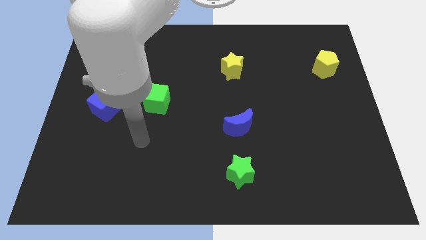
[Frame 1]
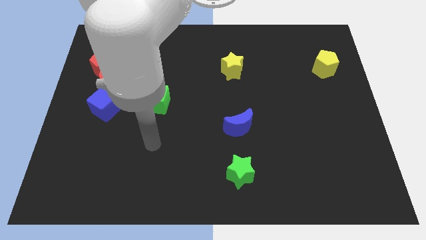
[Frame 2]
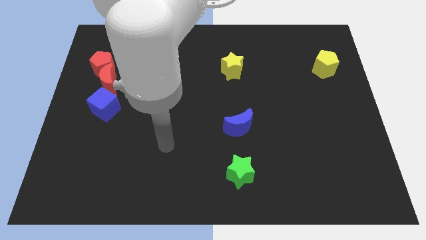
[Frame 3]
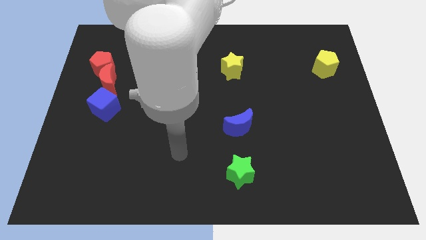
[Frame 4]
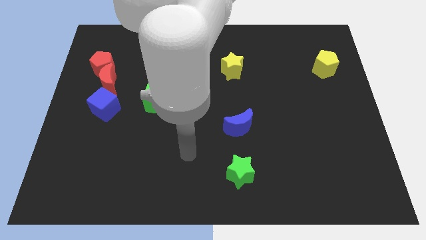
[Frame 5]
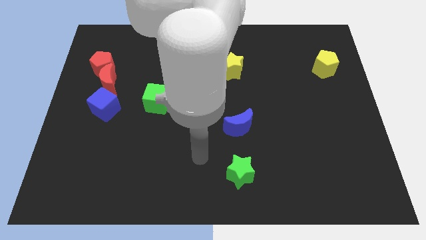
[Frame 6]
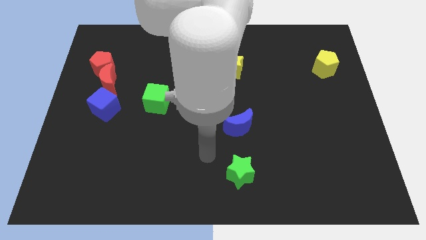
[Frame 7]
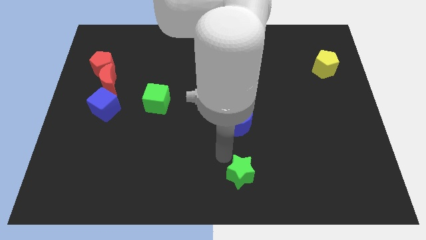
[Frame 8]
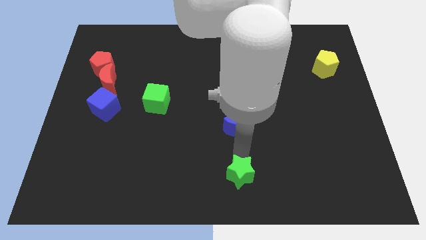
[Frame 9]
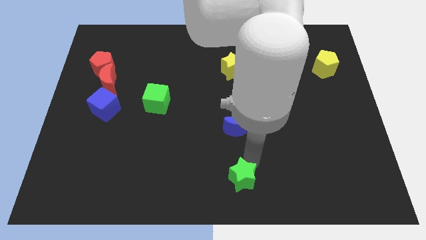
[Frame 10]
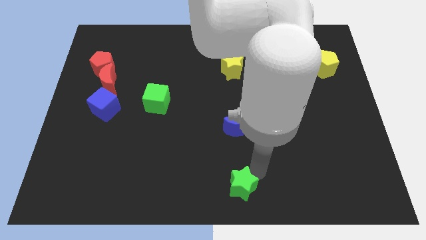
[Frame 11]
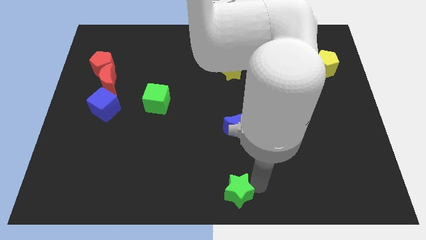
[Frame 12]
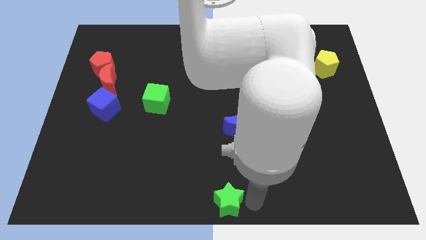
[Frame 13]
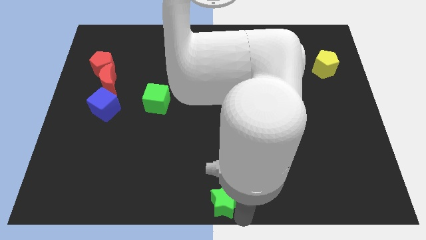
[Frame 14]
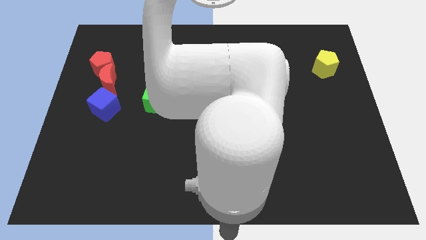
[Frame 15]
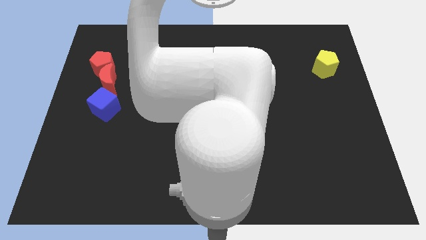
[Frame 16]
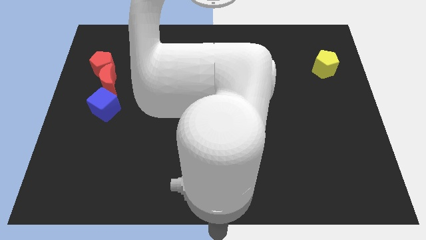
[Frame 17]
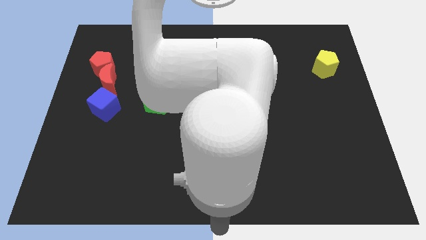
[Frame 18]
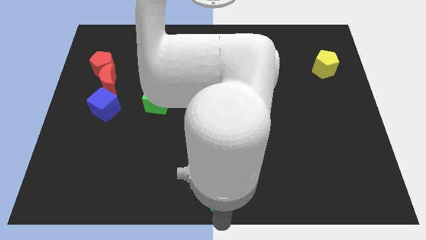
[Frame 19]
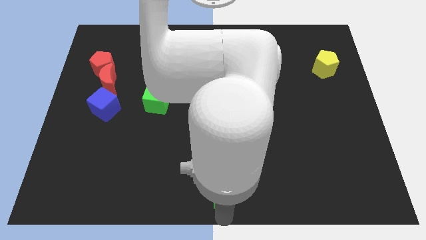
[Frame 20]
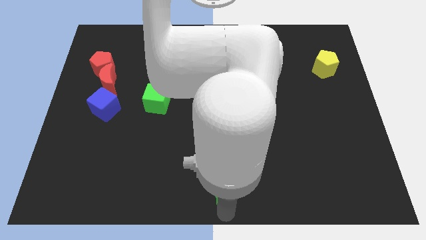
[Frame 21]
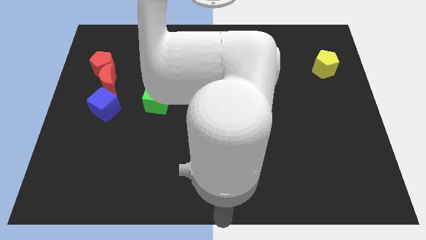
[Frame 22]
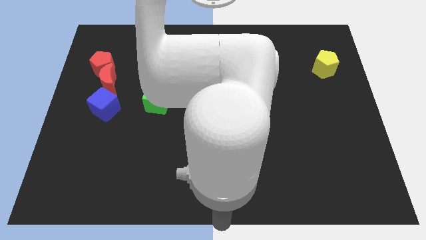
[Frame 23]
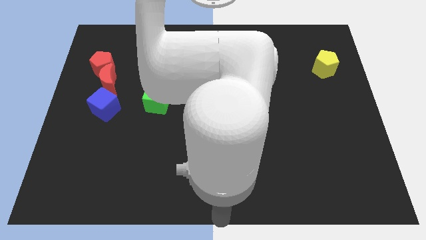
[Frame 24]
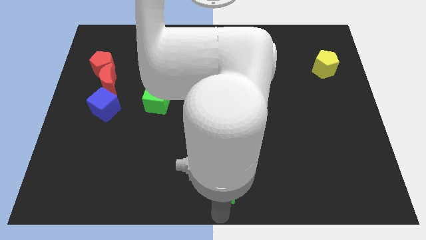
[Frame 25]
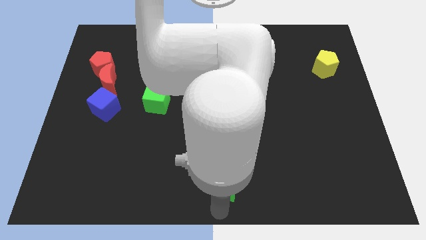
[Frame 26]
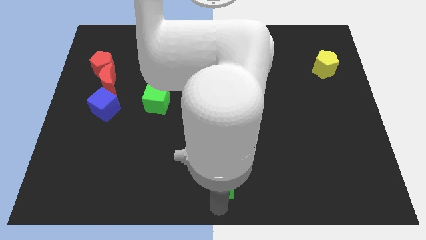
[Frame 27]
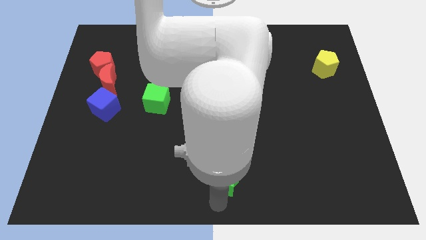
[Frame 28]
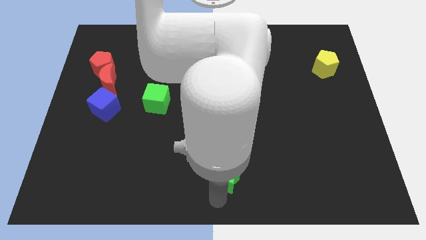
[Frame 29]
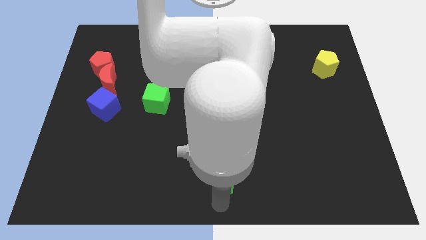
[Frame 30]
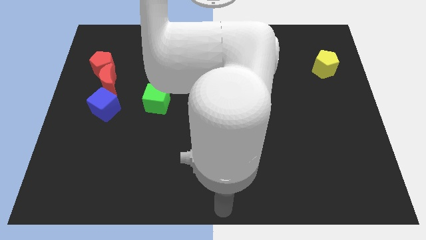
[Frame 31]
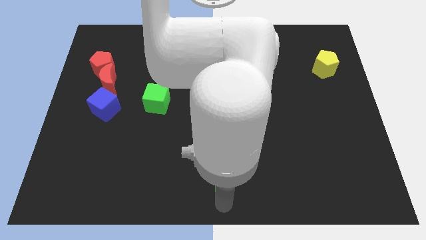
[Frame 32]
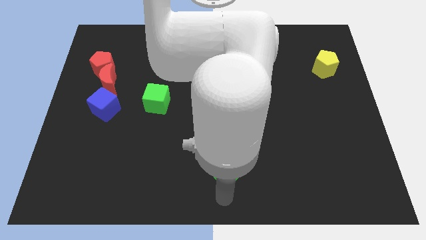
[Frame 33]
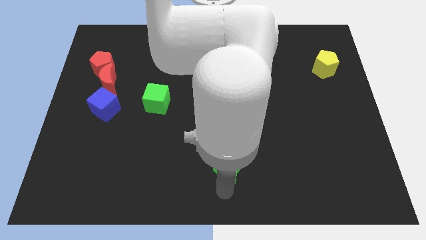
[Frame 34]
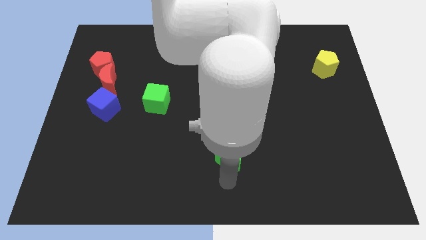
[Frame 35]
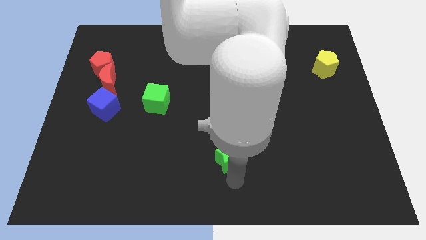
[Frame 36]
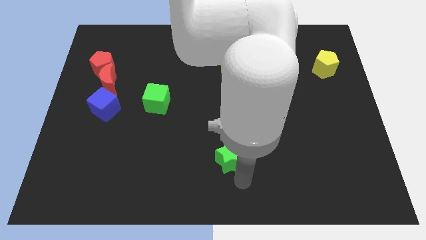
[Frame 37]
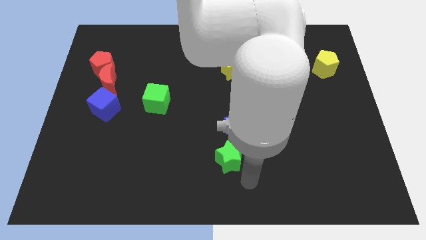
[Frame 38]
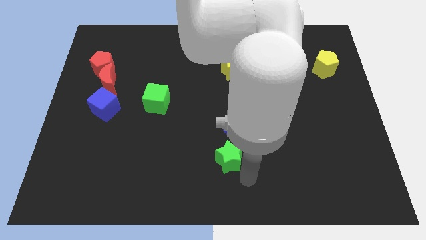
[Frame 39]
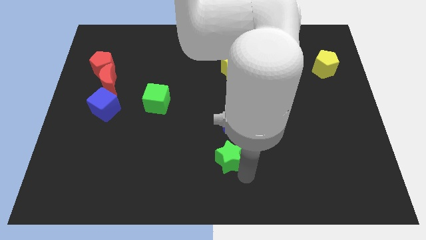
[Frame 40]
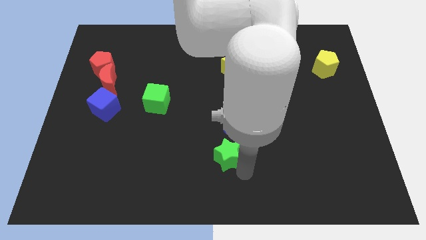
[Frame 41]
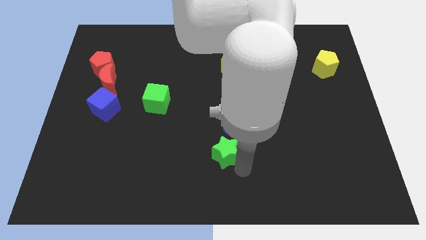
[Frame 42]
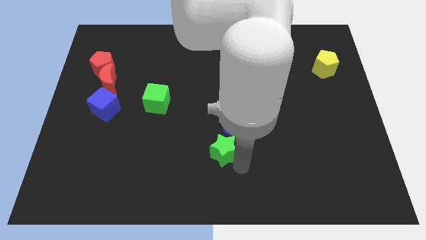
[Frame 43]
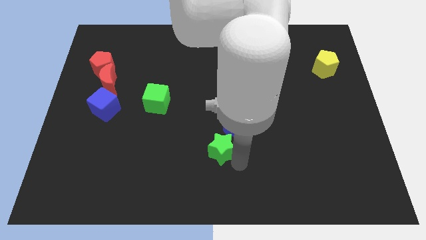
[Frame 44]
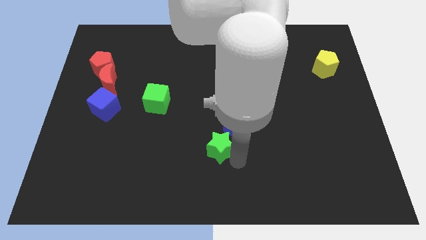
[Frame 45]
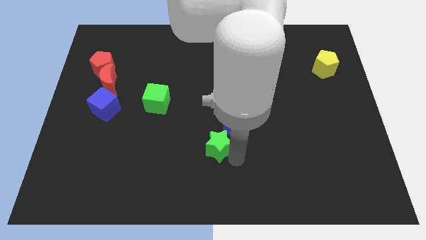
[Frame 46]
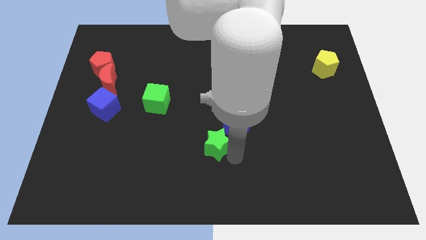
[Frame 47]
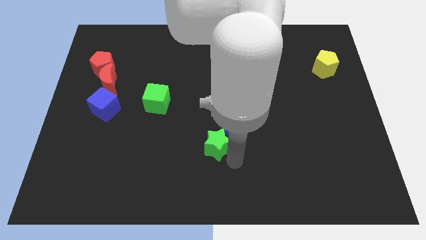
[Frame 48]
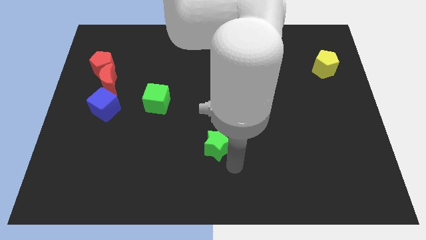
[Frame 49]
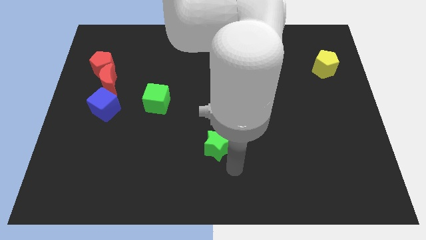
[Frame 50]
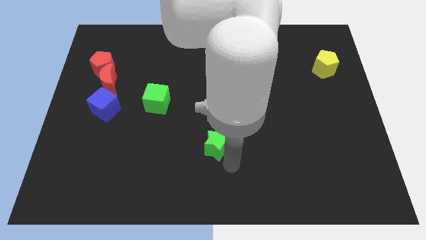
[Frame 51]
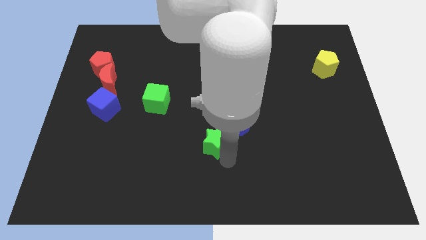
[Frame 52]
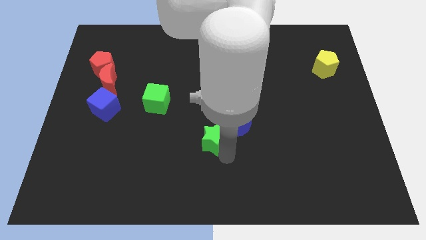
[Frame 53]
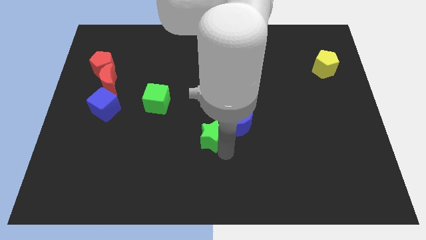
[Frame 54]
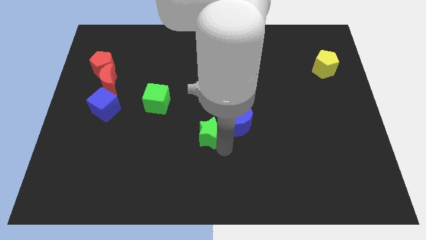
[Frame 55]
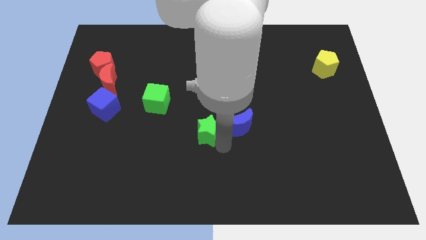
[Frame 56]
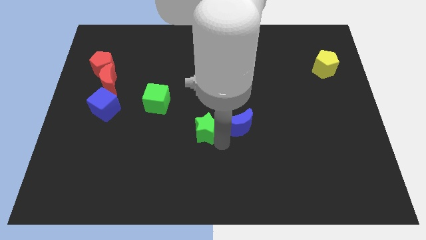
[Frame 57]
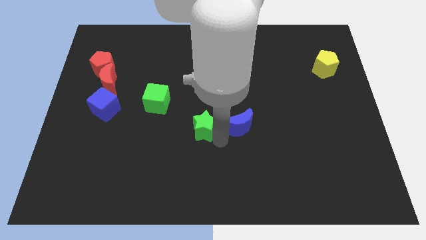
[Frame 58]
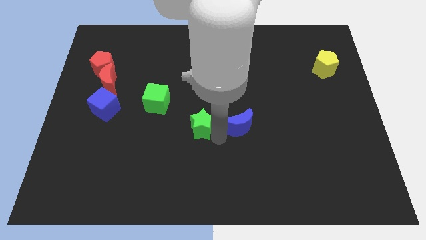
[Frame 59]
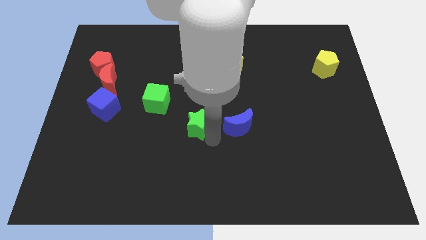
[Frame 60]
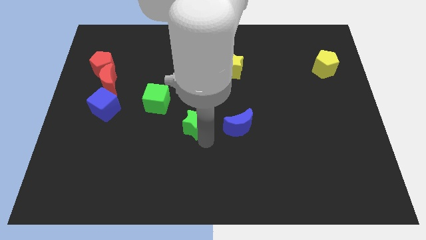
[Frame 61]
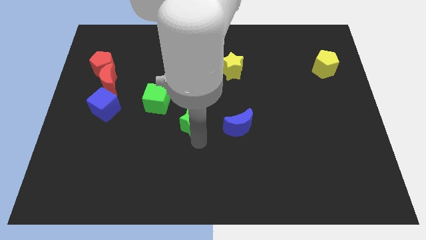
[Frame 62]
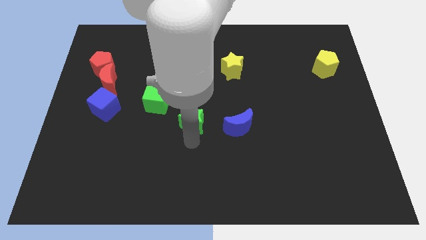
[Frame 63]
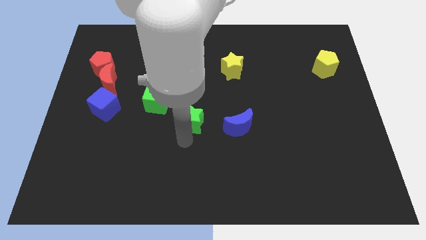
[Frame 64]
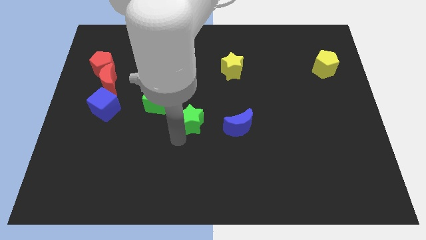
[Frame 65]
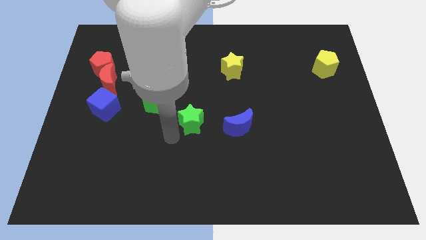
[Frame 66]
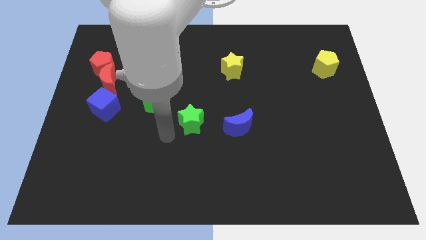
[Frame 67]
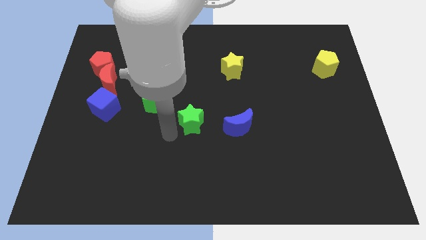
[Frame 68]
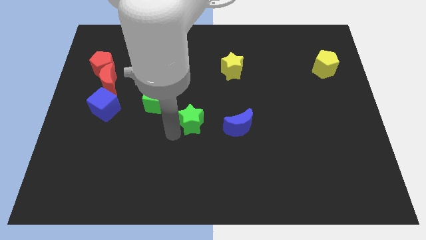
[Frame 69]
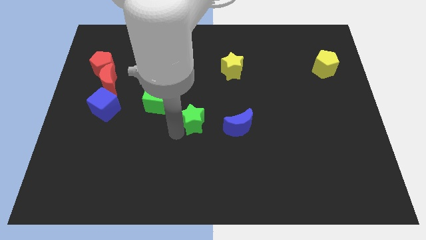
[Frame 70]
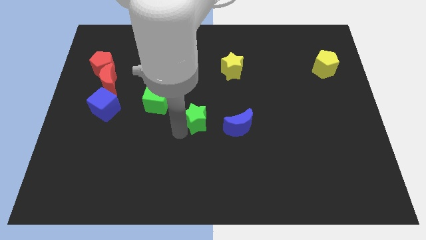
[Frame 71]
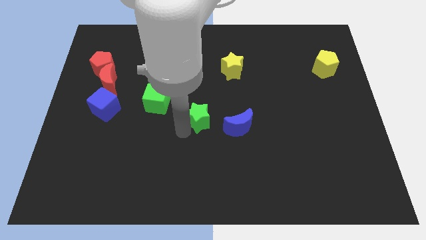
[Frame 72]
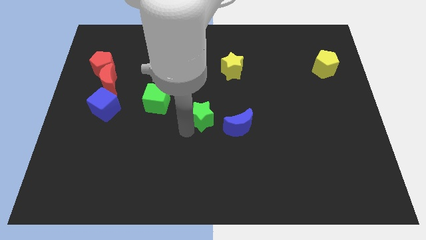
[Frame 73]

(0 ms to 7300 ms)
push the green star diagonally up and to the left of the blue moon

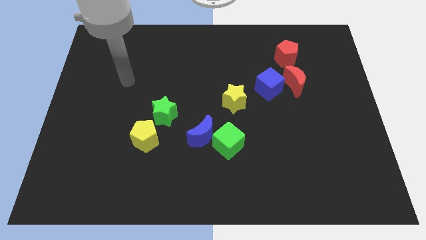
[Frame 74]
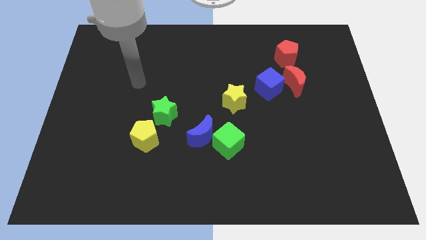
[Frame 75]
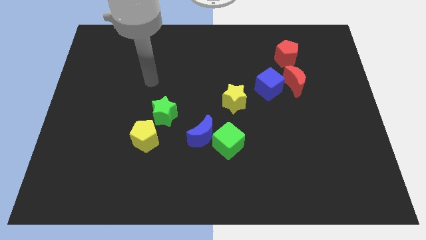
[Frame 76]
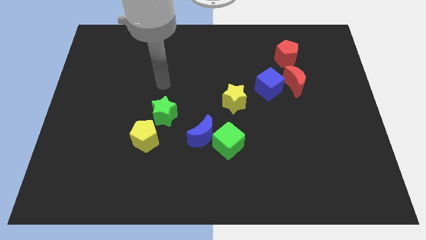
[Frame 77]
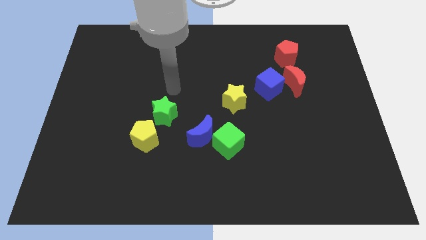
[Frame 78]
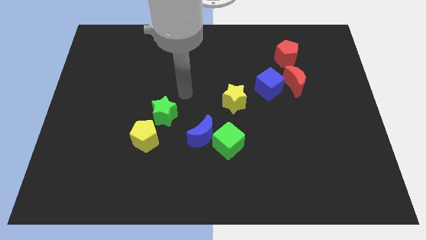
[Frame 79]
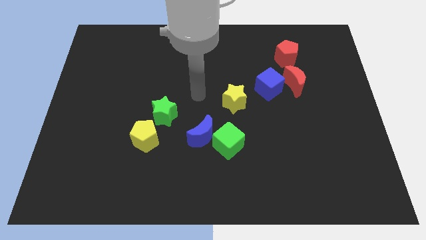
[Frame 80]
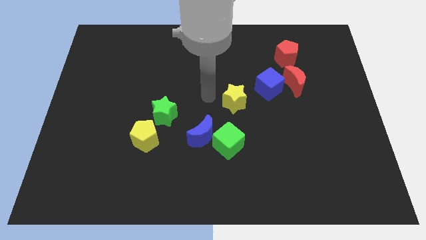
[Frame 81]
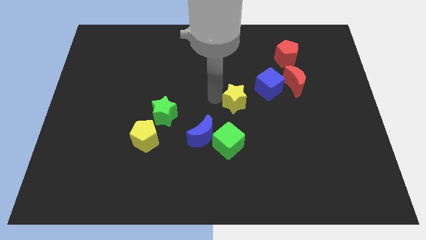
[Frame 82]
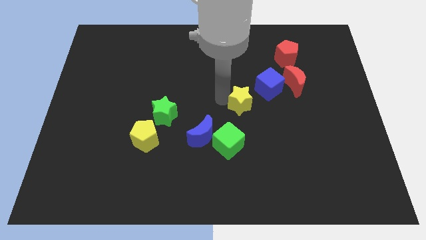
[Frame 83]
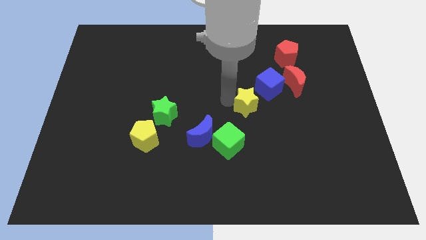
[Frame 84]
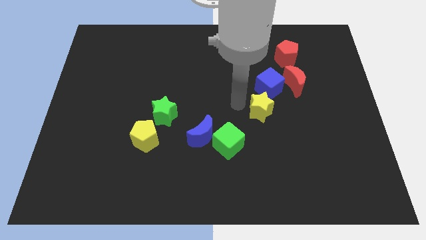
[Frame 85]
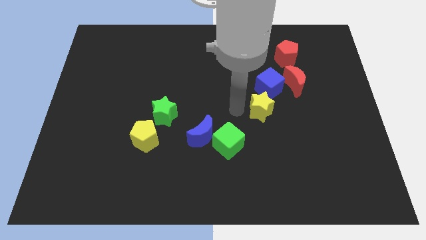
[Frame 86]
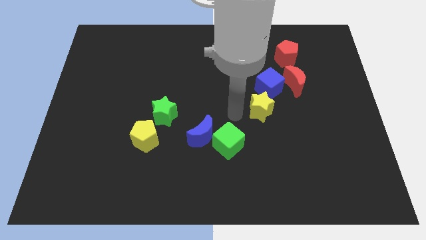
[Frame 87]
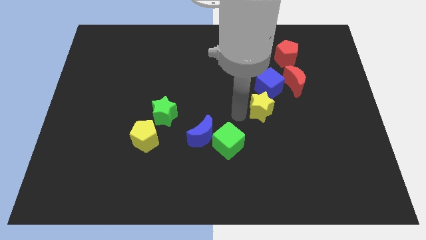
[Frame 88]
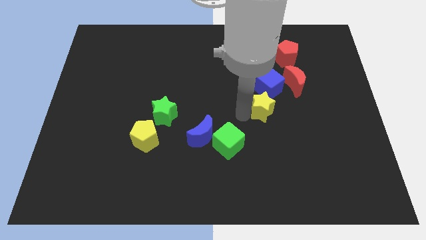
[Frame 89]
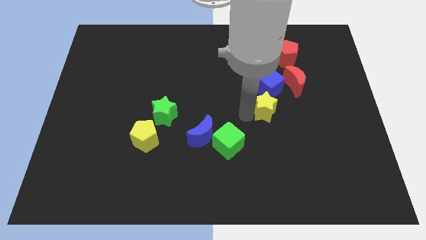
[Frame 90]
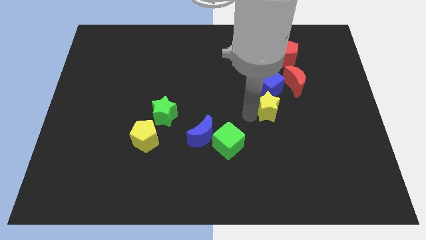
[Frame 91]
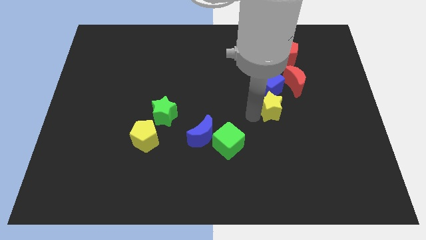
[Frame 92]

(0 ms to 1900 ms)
put the yellow star to the bottom right side of the blue cube
